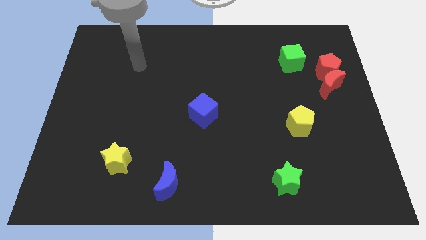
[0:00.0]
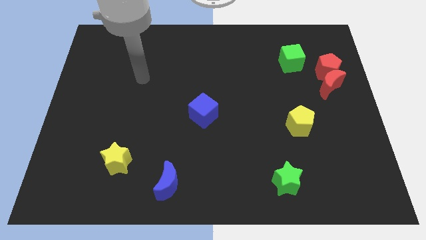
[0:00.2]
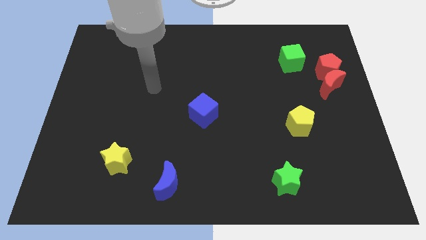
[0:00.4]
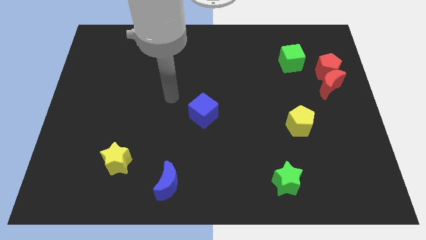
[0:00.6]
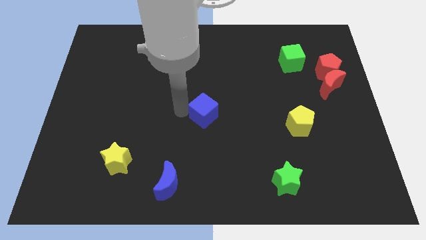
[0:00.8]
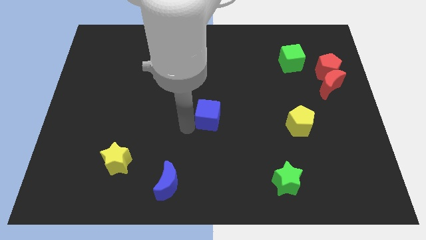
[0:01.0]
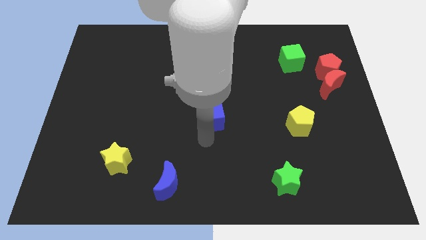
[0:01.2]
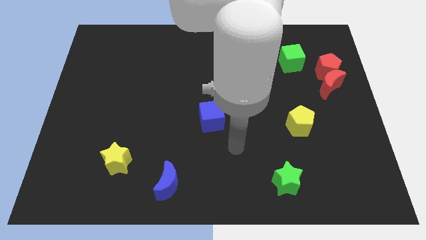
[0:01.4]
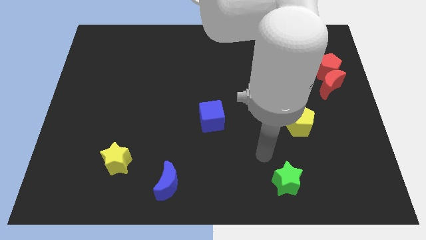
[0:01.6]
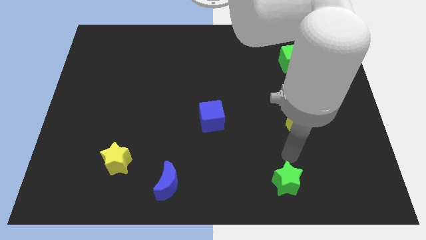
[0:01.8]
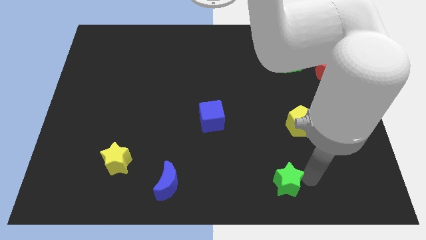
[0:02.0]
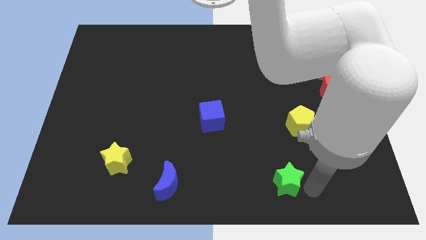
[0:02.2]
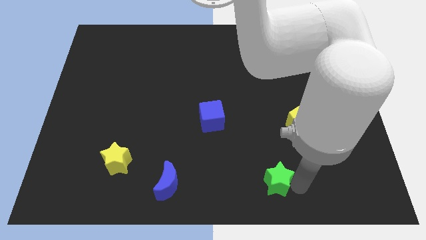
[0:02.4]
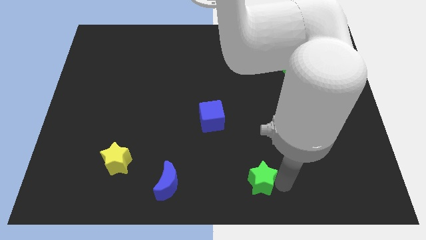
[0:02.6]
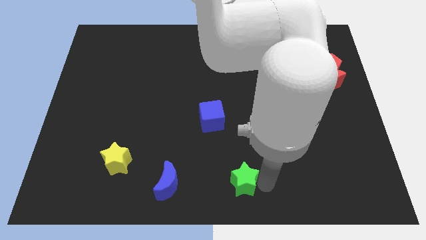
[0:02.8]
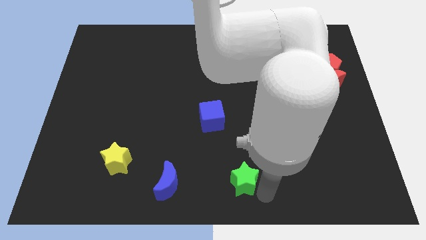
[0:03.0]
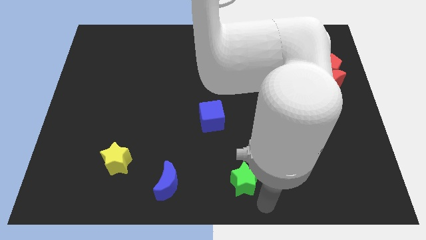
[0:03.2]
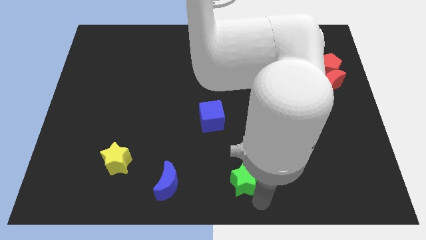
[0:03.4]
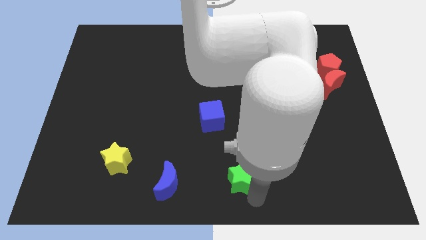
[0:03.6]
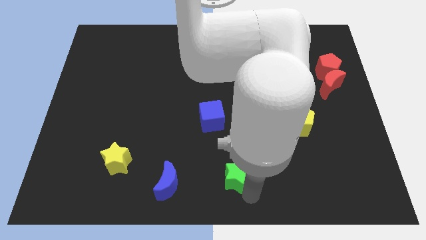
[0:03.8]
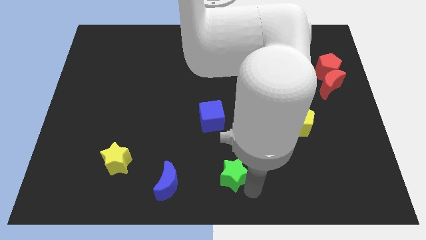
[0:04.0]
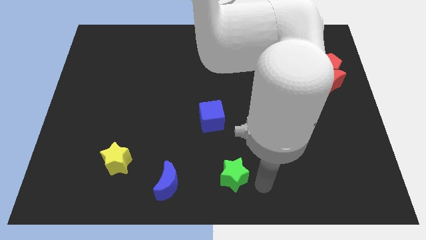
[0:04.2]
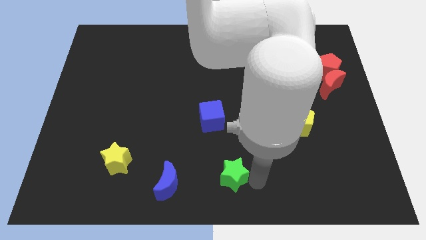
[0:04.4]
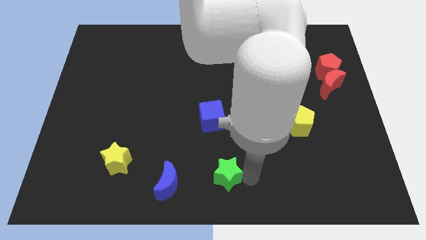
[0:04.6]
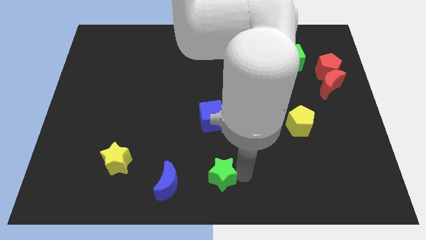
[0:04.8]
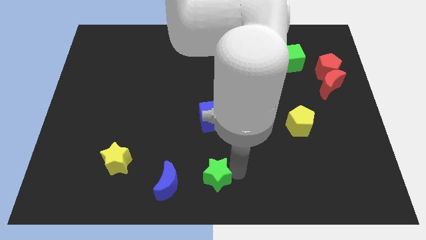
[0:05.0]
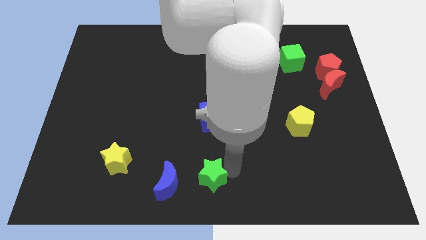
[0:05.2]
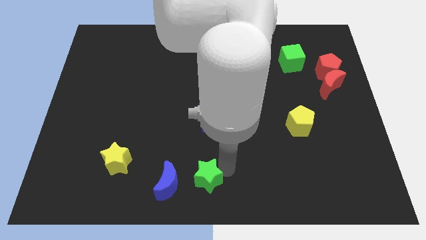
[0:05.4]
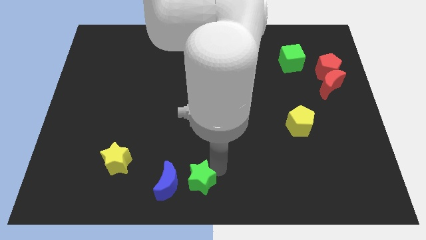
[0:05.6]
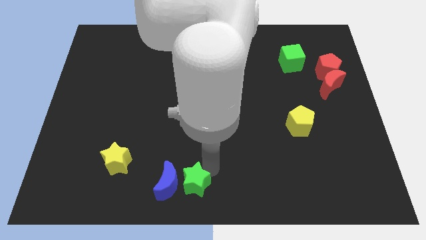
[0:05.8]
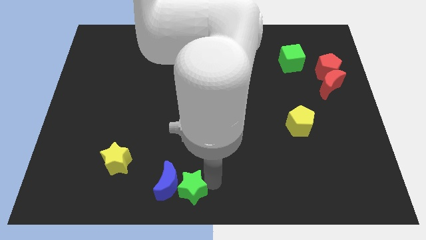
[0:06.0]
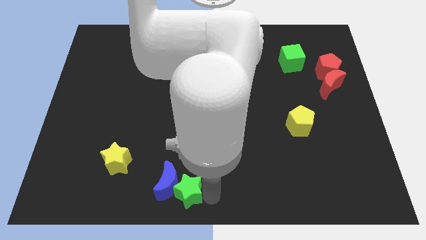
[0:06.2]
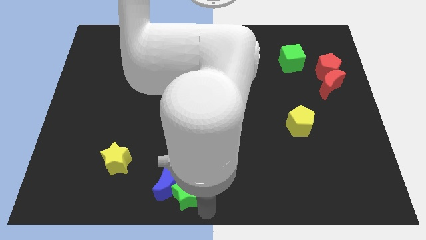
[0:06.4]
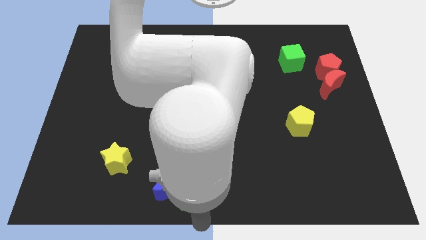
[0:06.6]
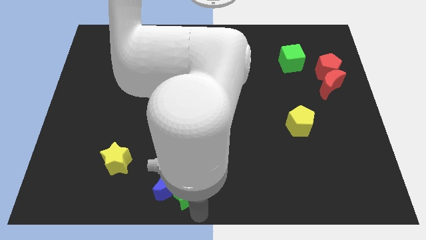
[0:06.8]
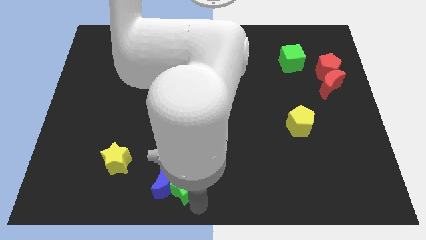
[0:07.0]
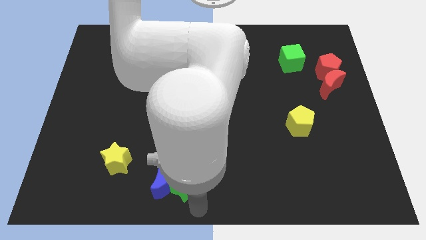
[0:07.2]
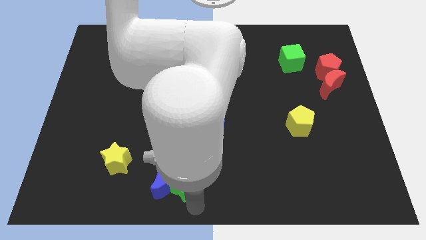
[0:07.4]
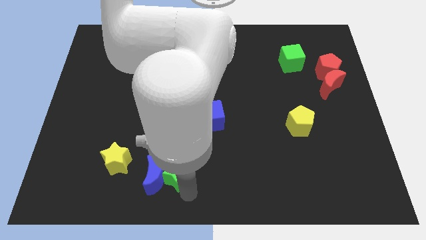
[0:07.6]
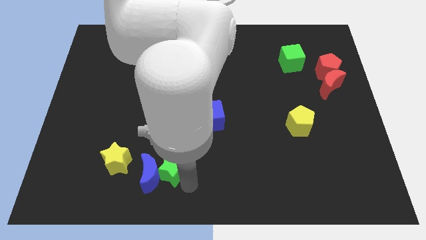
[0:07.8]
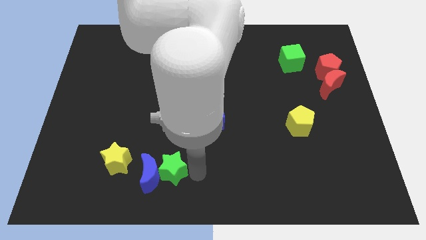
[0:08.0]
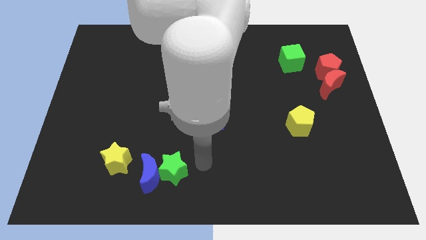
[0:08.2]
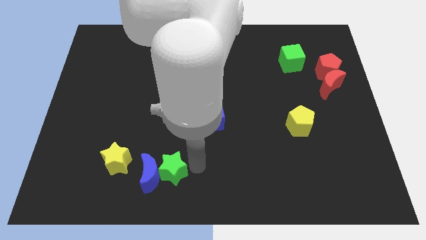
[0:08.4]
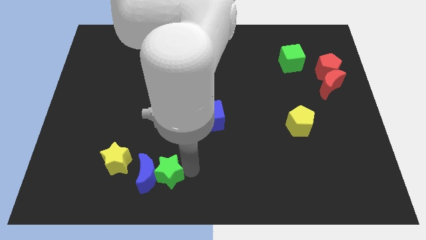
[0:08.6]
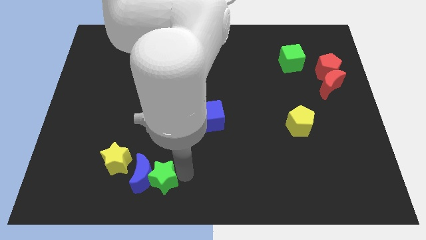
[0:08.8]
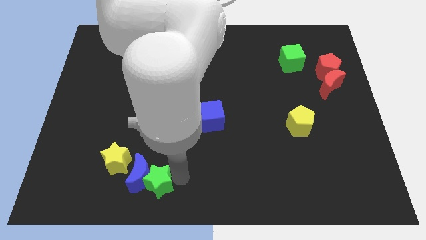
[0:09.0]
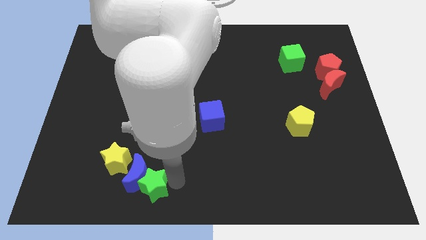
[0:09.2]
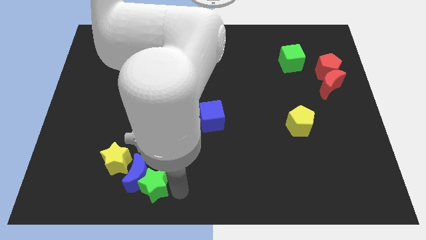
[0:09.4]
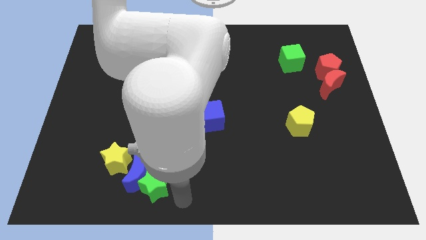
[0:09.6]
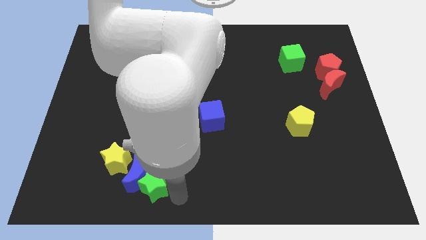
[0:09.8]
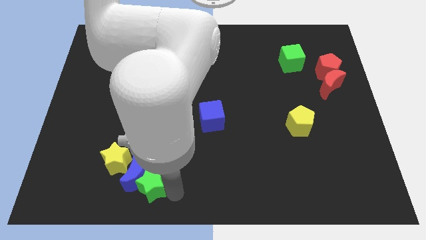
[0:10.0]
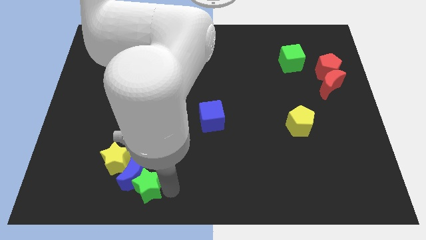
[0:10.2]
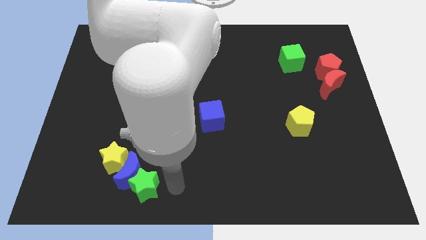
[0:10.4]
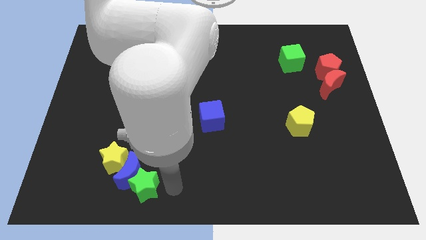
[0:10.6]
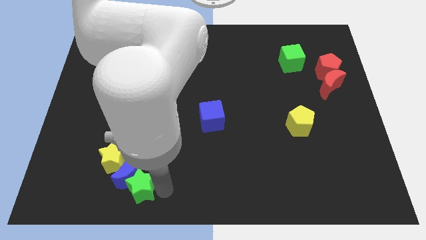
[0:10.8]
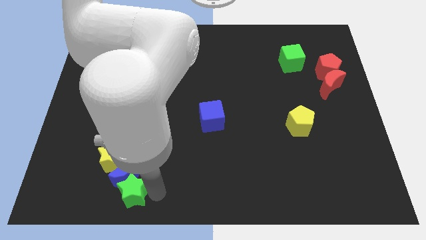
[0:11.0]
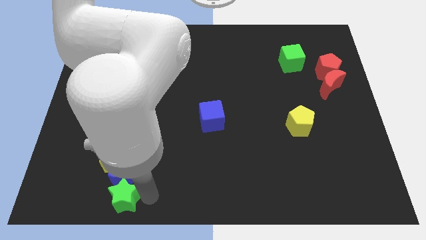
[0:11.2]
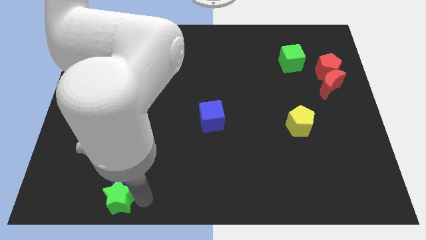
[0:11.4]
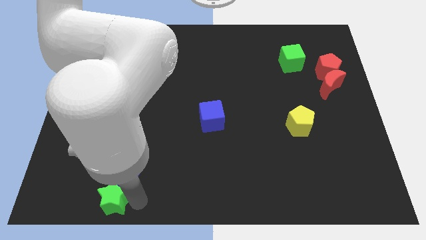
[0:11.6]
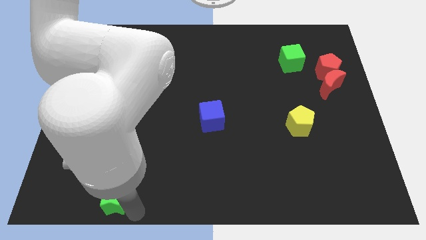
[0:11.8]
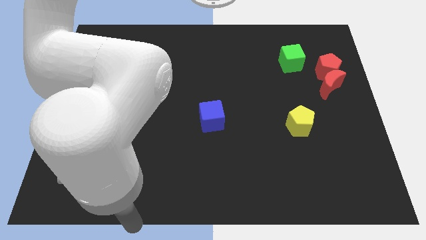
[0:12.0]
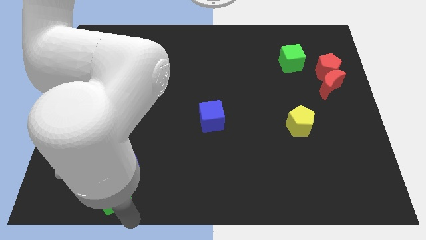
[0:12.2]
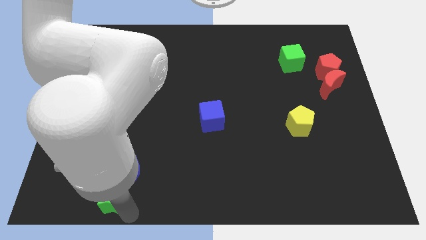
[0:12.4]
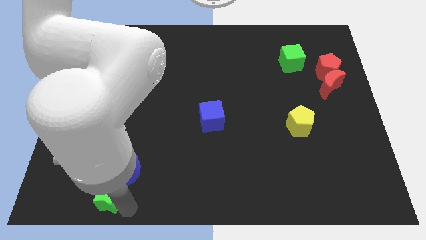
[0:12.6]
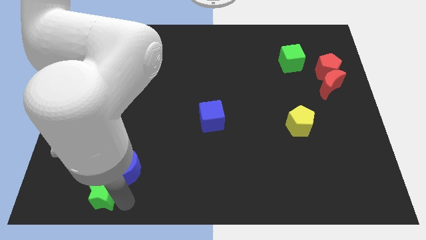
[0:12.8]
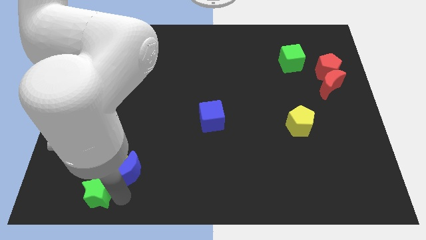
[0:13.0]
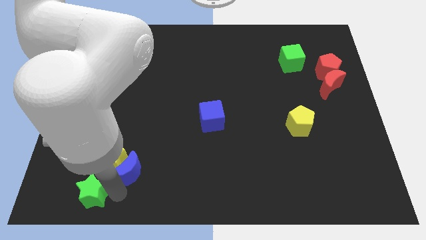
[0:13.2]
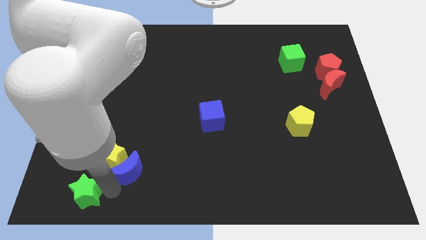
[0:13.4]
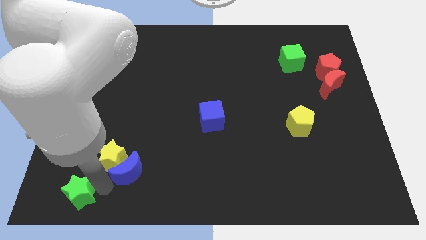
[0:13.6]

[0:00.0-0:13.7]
push the green star to the bottom left corner
